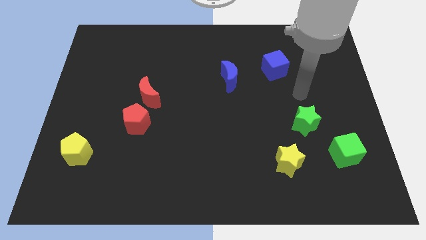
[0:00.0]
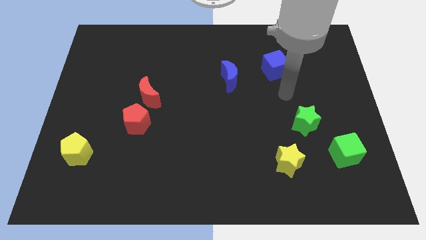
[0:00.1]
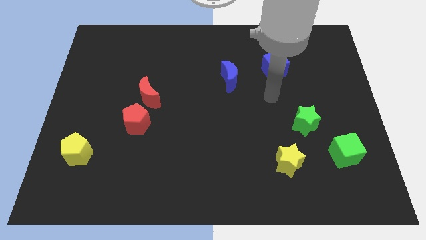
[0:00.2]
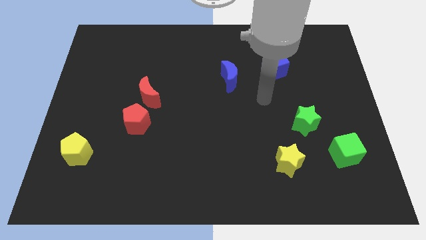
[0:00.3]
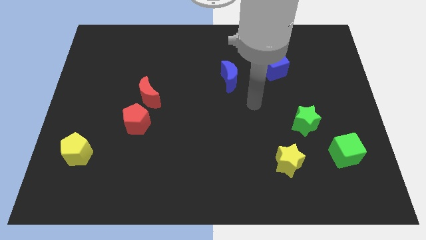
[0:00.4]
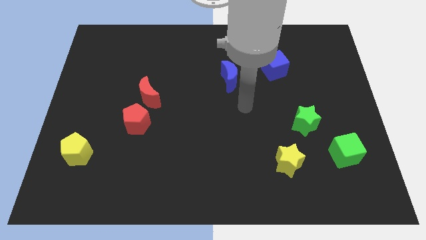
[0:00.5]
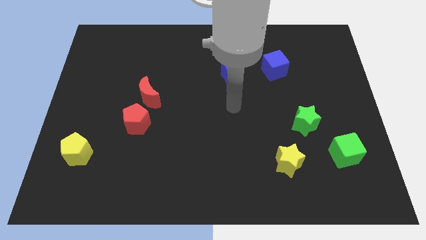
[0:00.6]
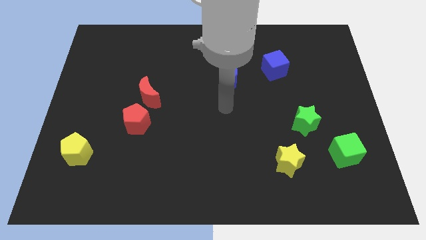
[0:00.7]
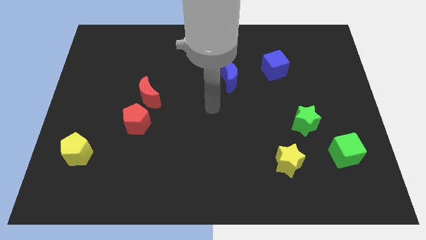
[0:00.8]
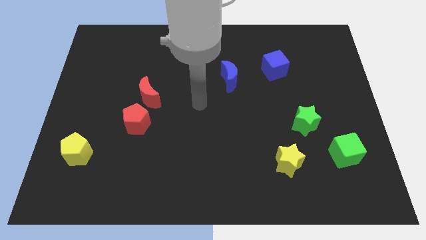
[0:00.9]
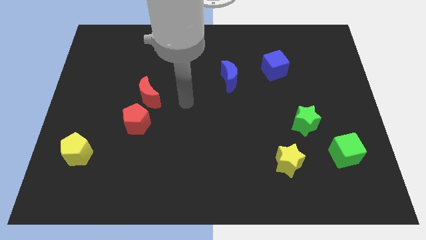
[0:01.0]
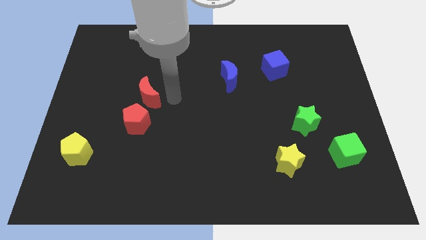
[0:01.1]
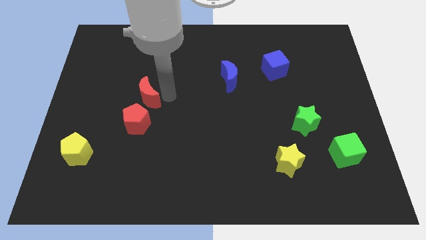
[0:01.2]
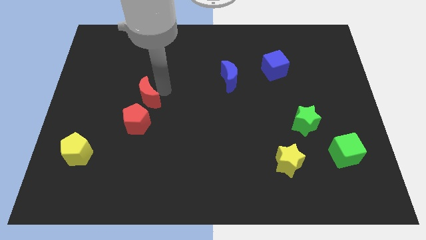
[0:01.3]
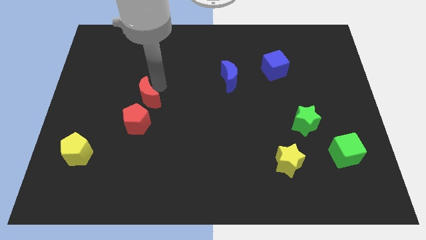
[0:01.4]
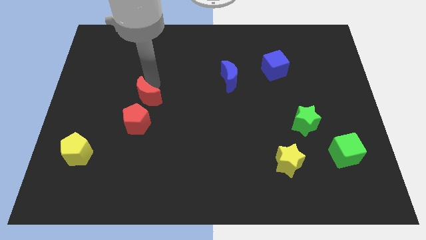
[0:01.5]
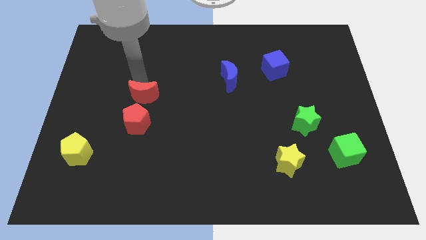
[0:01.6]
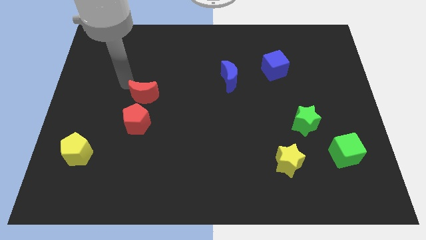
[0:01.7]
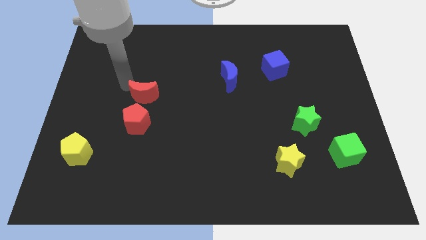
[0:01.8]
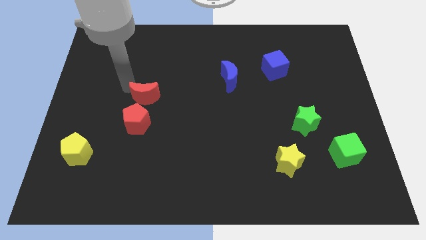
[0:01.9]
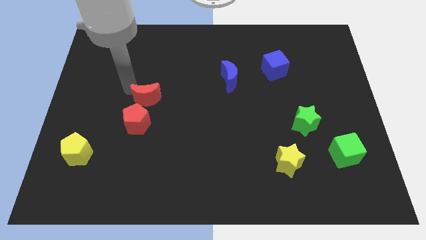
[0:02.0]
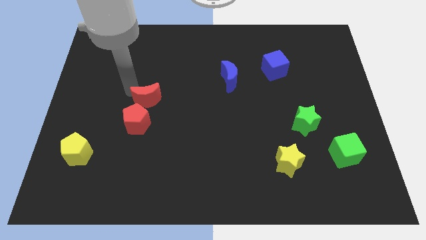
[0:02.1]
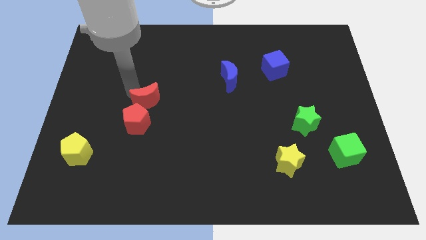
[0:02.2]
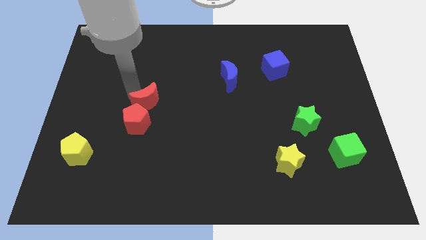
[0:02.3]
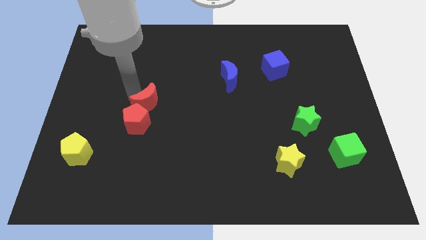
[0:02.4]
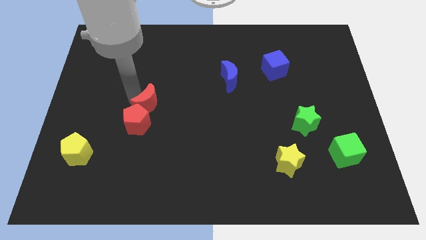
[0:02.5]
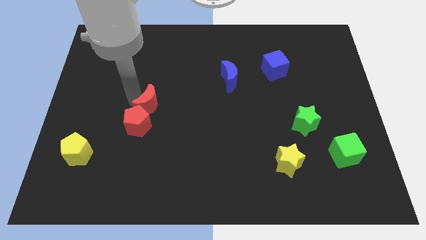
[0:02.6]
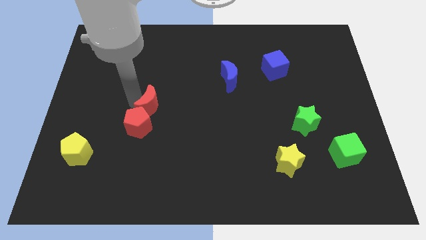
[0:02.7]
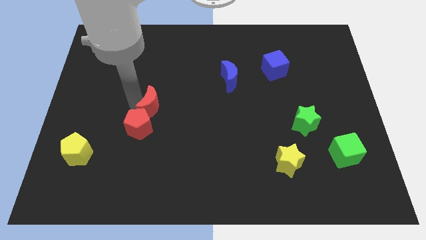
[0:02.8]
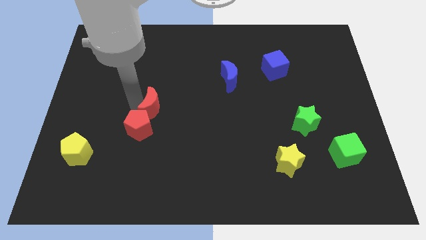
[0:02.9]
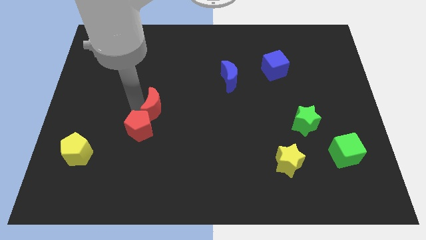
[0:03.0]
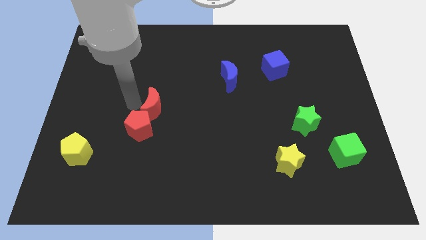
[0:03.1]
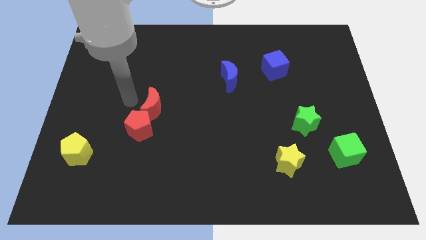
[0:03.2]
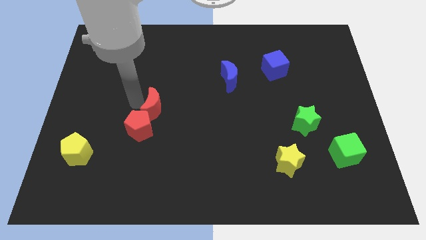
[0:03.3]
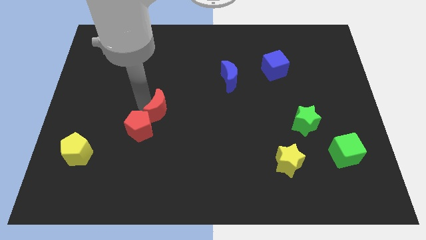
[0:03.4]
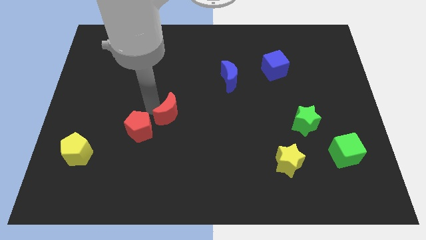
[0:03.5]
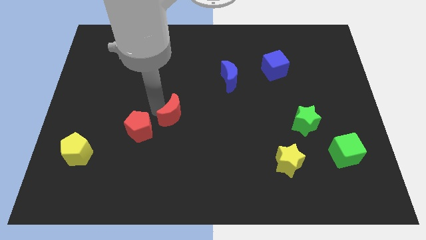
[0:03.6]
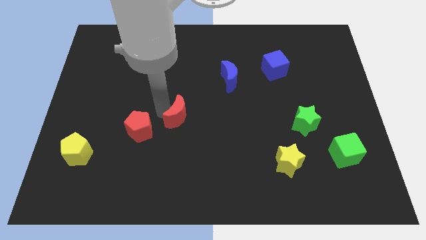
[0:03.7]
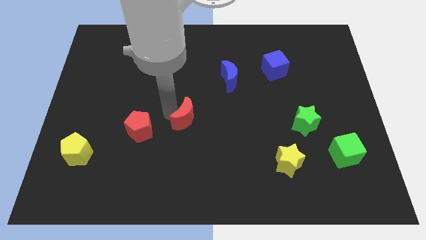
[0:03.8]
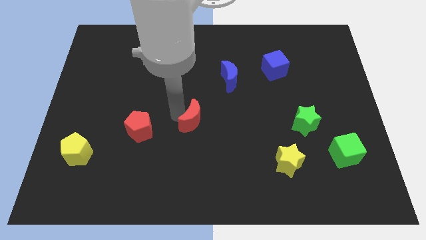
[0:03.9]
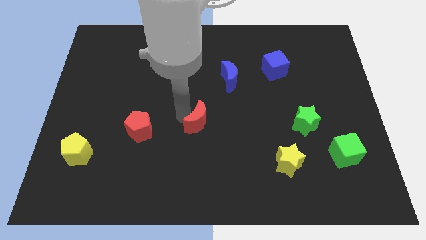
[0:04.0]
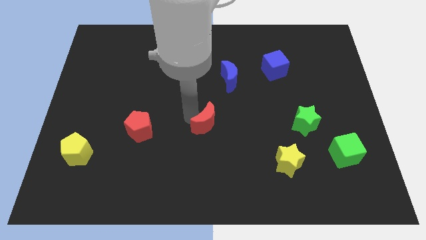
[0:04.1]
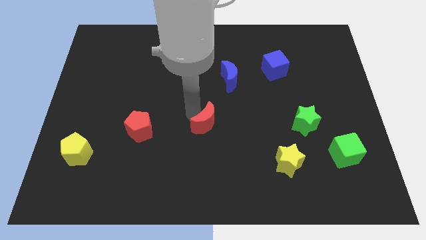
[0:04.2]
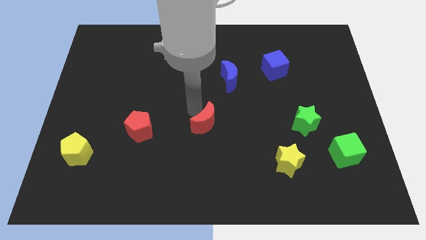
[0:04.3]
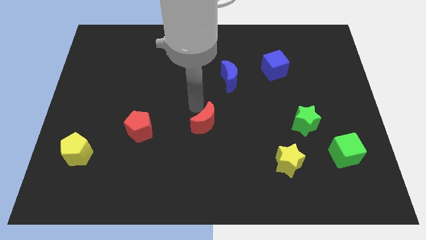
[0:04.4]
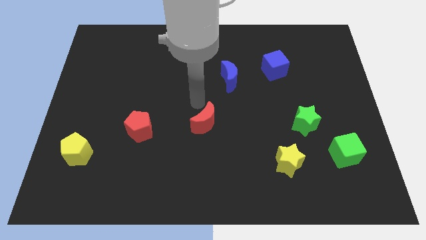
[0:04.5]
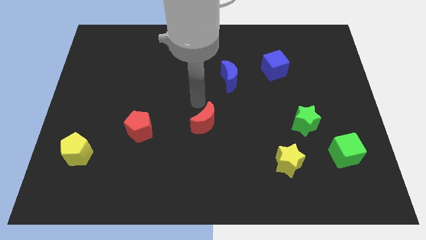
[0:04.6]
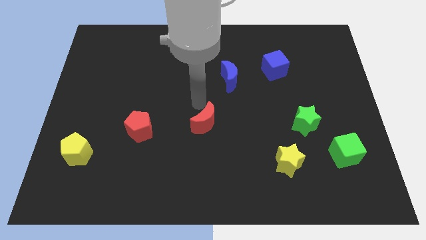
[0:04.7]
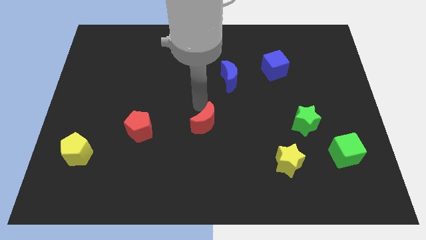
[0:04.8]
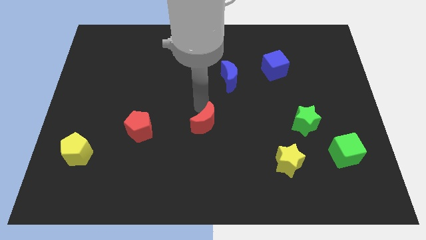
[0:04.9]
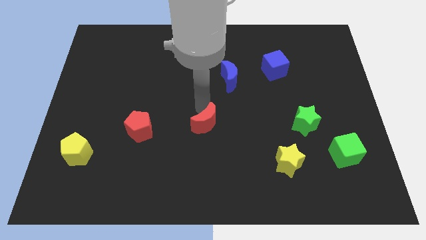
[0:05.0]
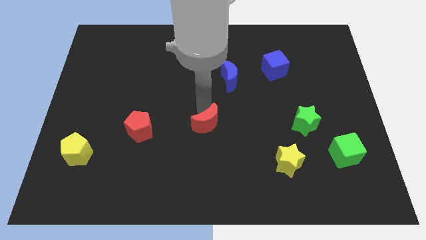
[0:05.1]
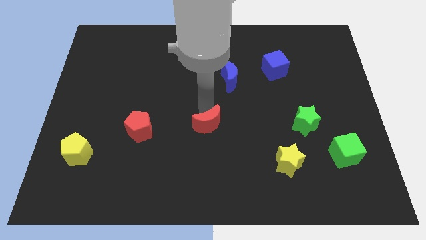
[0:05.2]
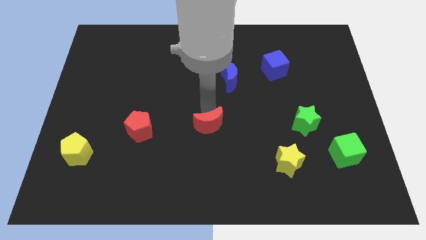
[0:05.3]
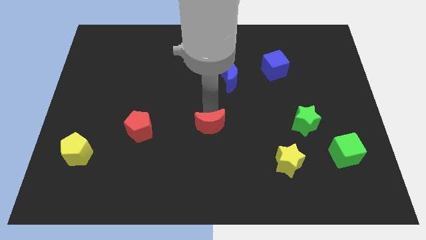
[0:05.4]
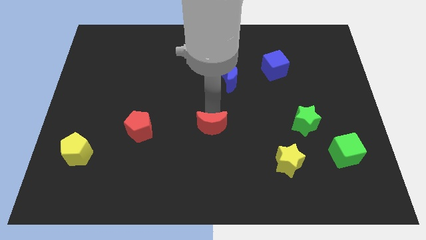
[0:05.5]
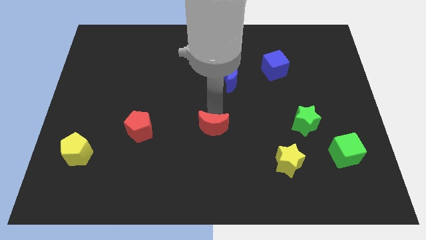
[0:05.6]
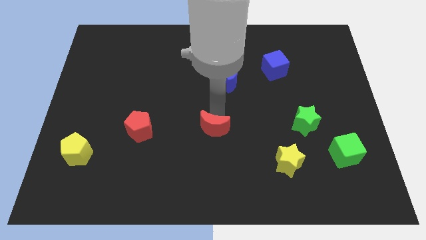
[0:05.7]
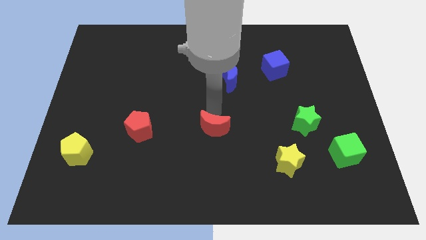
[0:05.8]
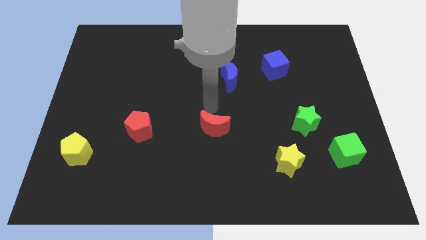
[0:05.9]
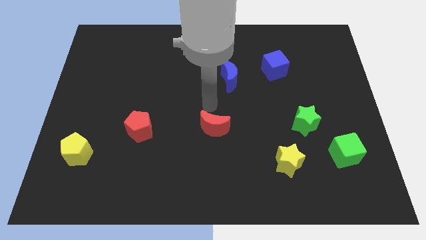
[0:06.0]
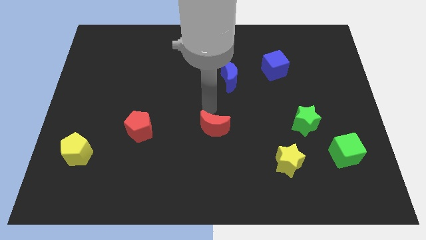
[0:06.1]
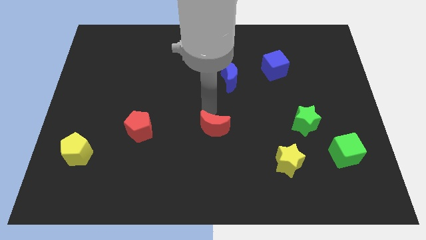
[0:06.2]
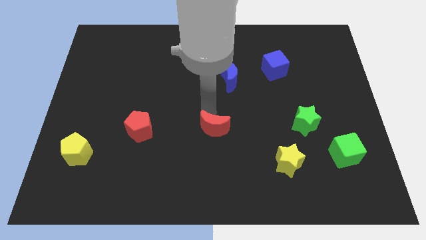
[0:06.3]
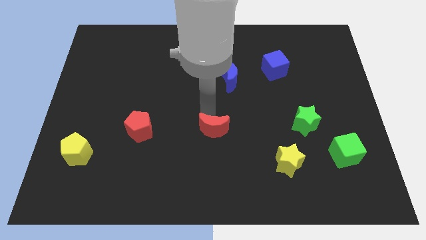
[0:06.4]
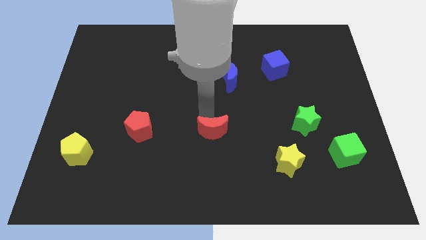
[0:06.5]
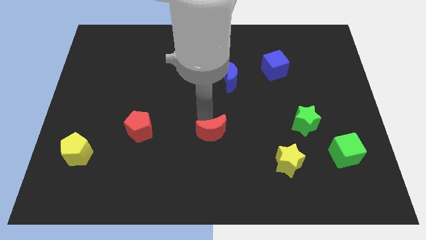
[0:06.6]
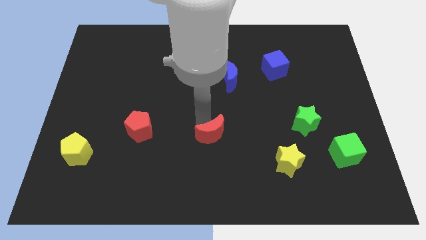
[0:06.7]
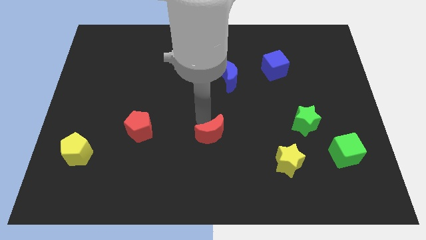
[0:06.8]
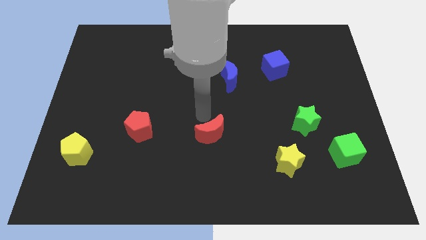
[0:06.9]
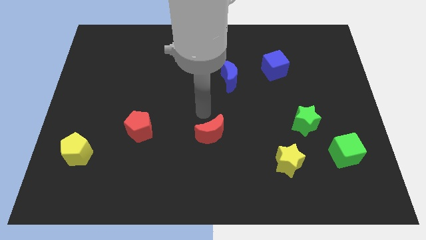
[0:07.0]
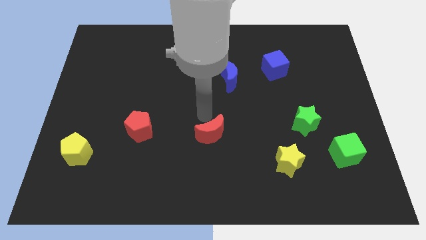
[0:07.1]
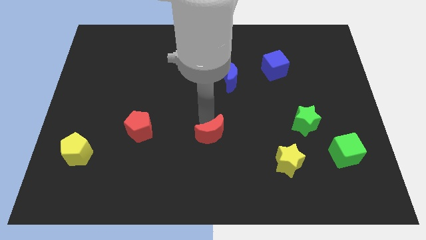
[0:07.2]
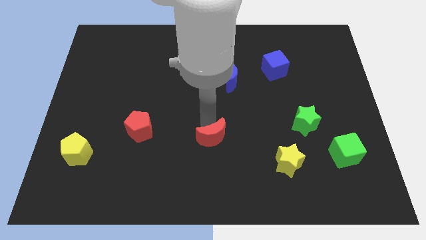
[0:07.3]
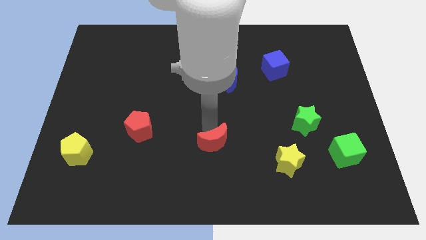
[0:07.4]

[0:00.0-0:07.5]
push the red moon downwards and right

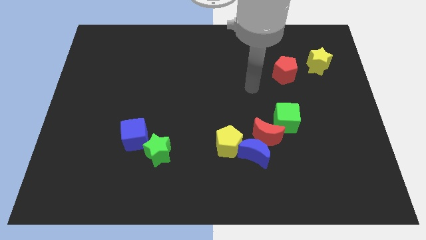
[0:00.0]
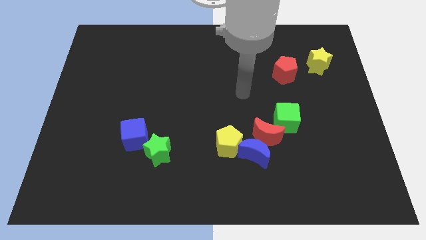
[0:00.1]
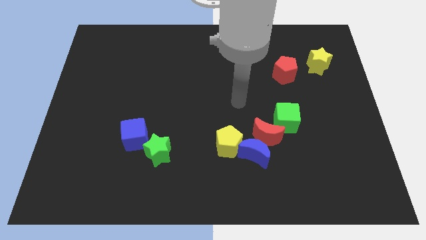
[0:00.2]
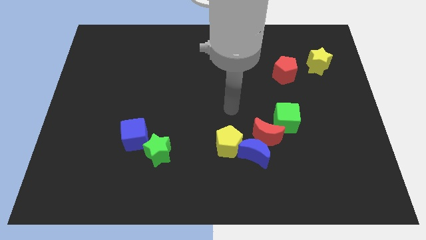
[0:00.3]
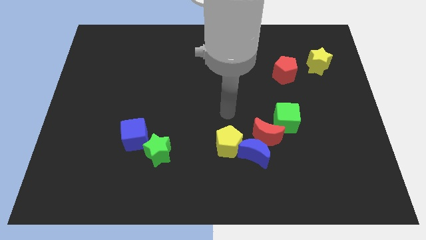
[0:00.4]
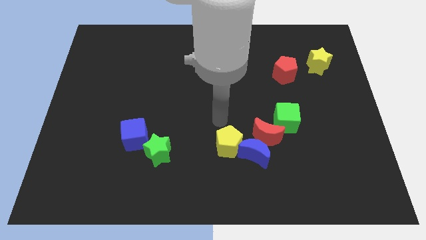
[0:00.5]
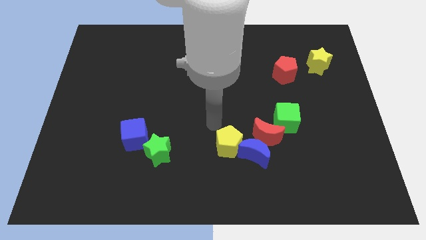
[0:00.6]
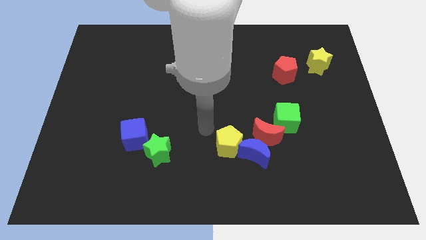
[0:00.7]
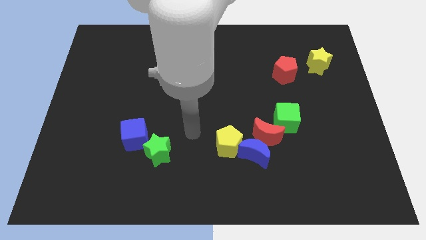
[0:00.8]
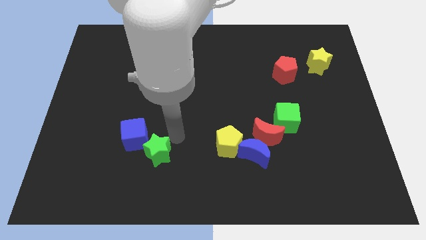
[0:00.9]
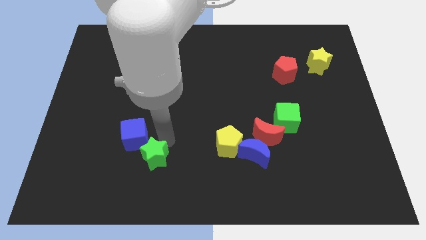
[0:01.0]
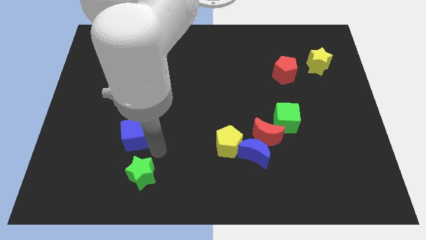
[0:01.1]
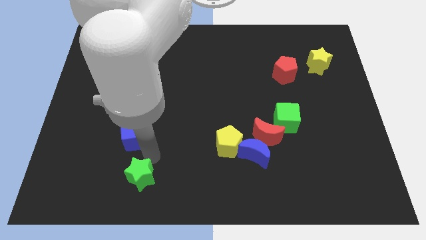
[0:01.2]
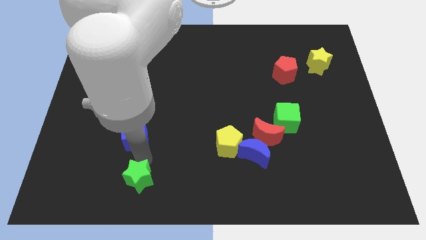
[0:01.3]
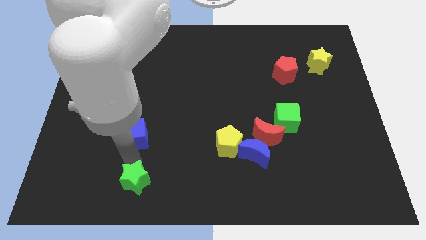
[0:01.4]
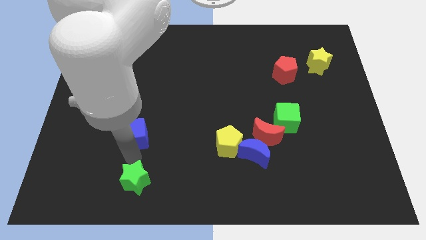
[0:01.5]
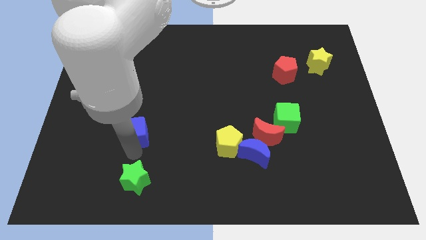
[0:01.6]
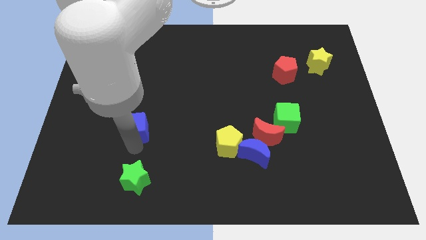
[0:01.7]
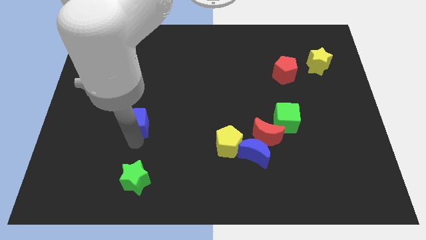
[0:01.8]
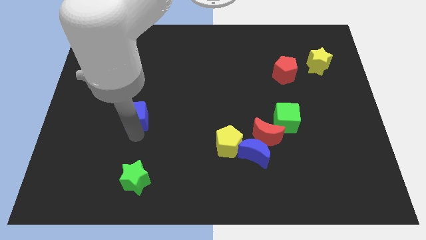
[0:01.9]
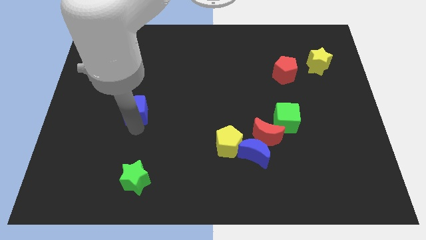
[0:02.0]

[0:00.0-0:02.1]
slightly move the blue cube upwards
